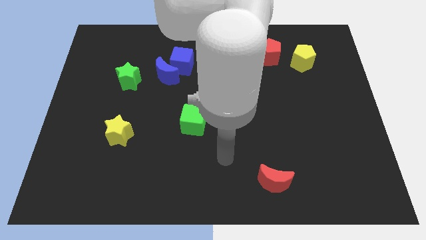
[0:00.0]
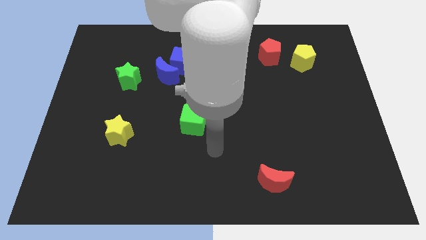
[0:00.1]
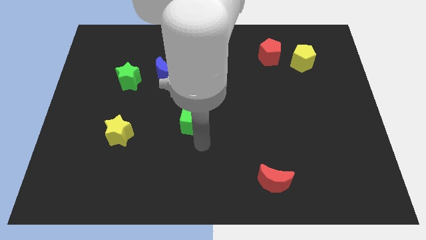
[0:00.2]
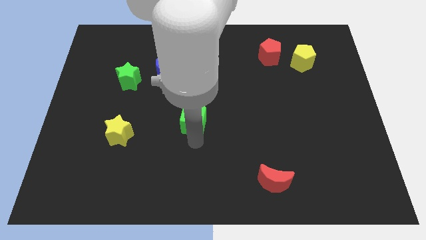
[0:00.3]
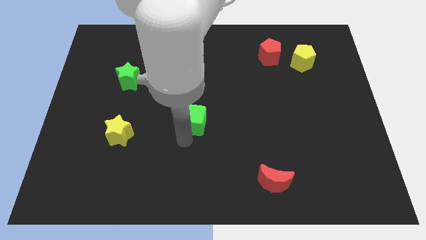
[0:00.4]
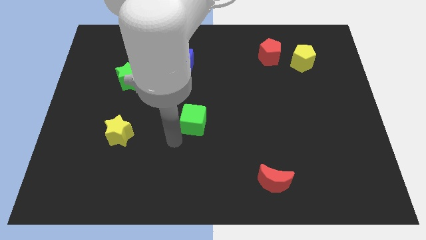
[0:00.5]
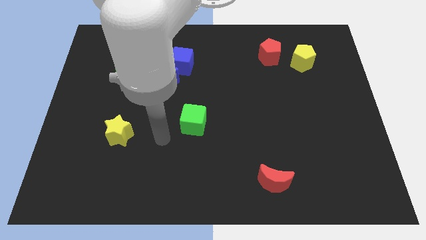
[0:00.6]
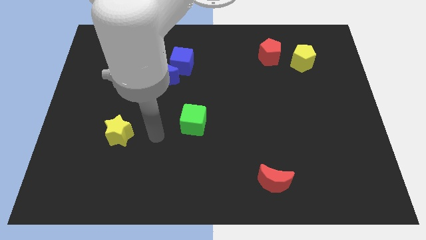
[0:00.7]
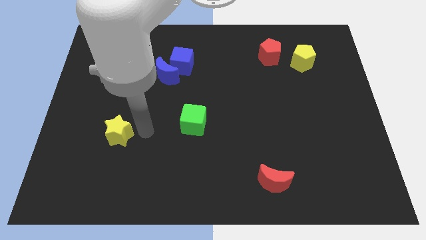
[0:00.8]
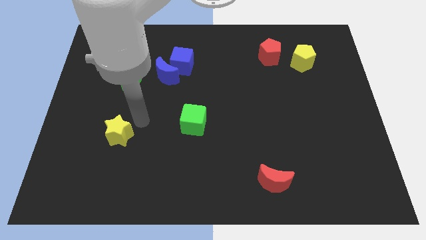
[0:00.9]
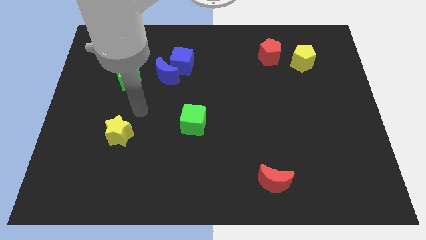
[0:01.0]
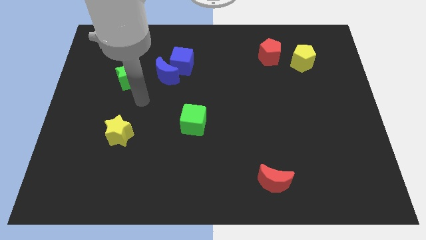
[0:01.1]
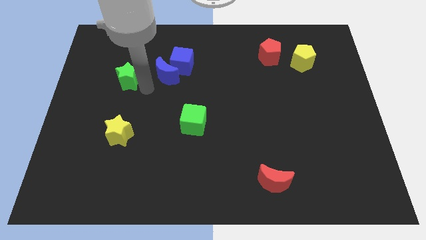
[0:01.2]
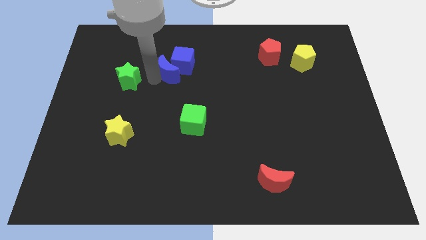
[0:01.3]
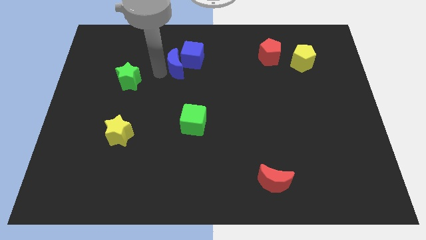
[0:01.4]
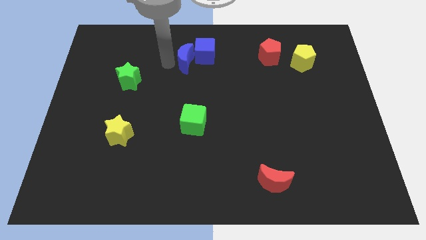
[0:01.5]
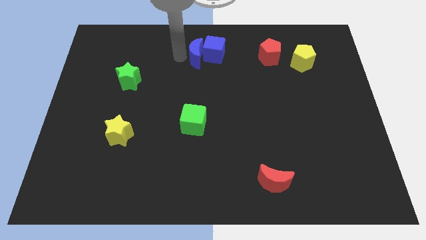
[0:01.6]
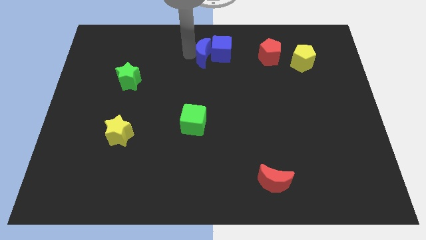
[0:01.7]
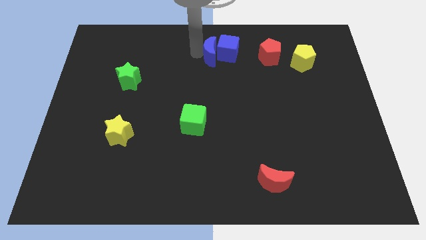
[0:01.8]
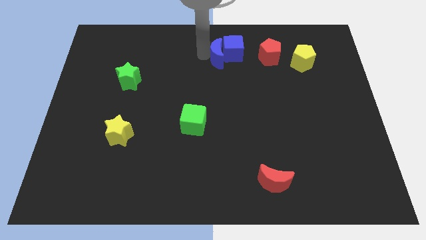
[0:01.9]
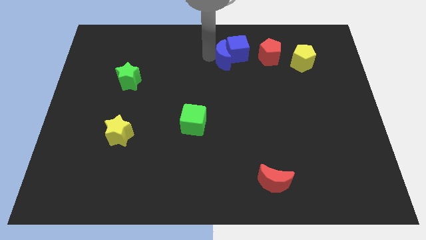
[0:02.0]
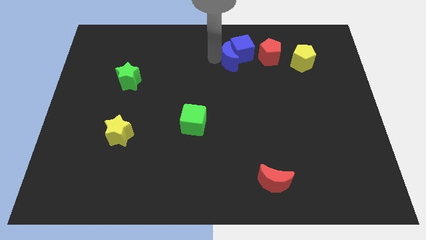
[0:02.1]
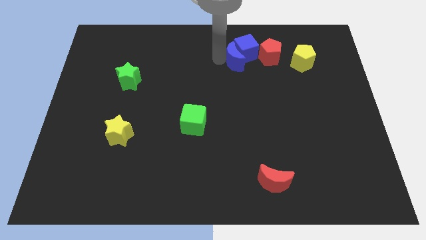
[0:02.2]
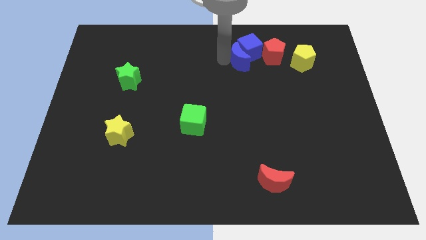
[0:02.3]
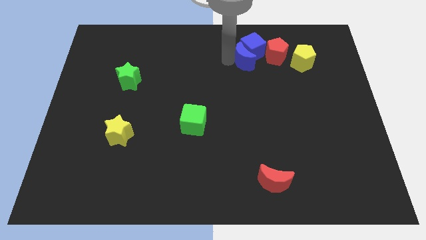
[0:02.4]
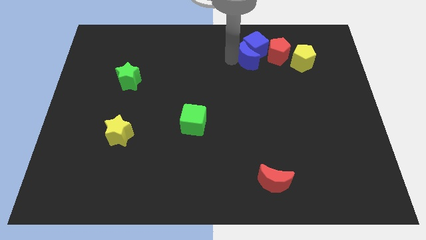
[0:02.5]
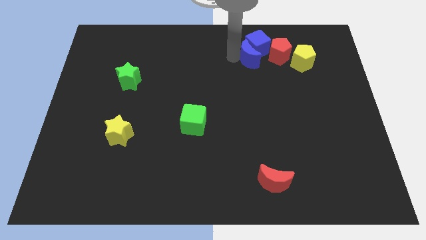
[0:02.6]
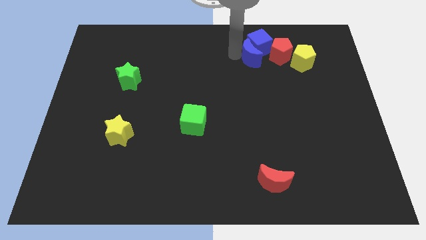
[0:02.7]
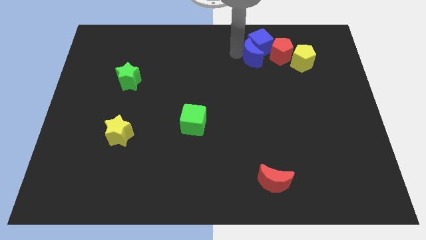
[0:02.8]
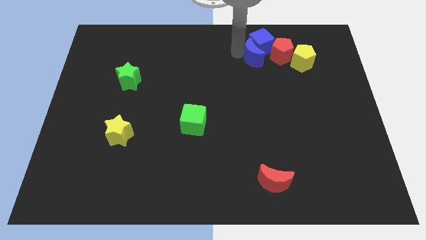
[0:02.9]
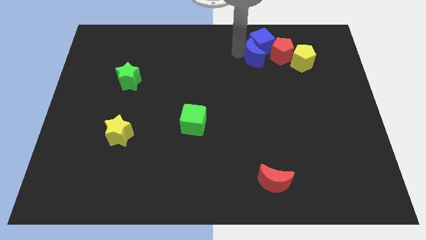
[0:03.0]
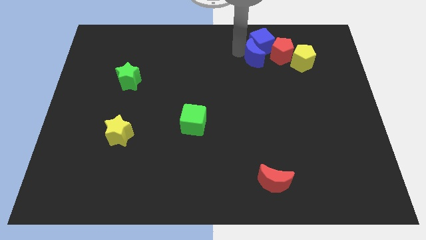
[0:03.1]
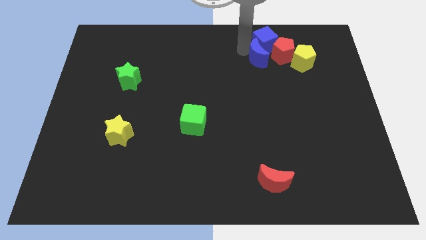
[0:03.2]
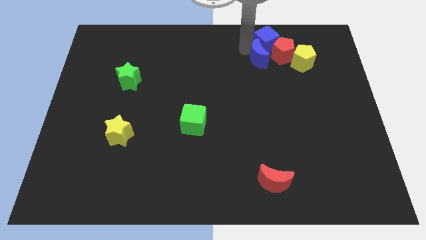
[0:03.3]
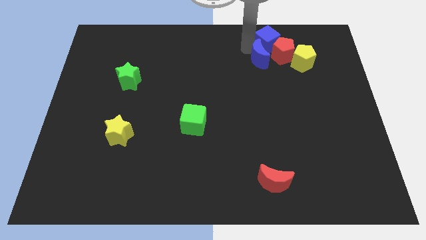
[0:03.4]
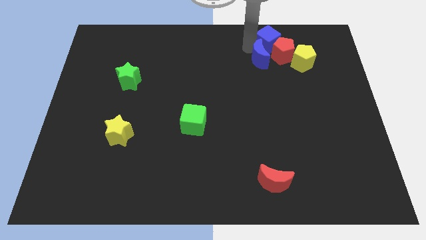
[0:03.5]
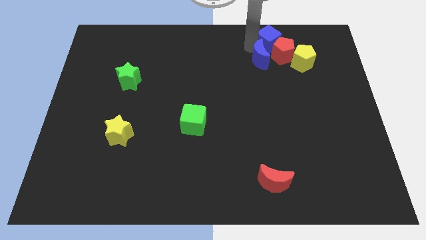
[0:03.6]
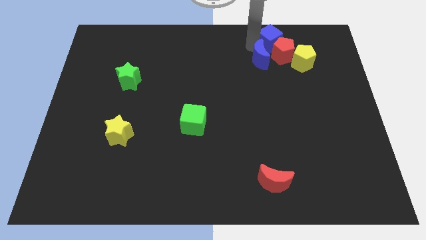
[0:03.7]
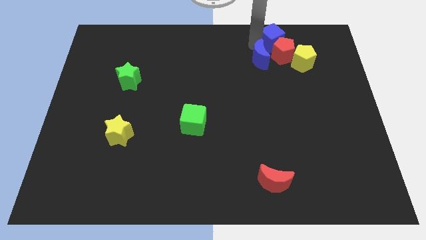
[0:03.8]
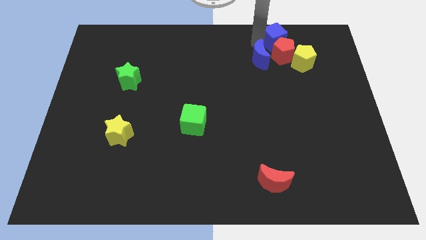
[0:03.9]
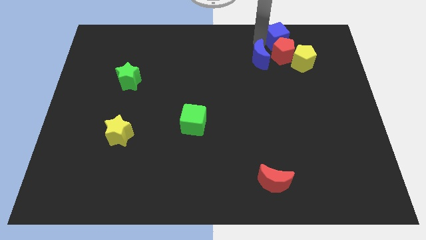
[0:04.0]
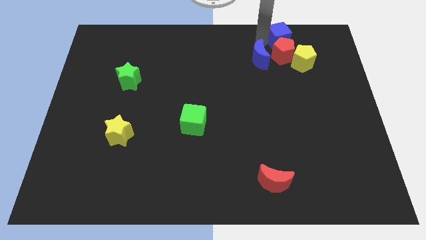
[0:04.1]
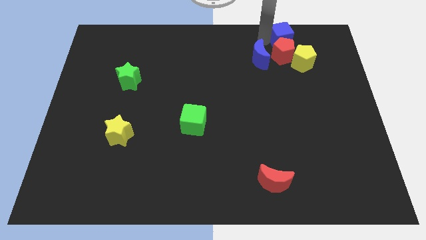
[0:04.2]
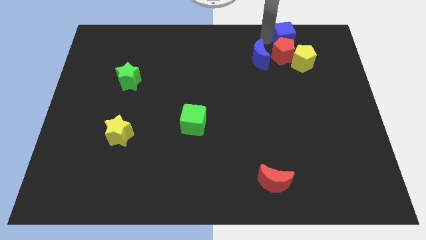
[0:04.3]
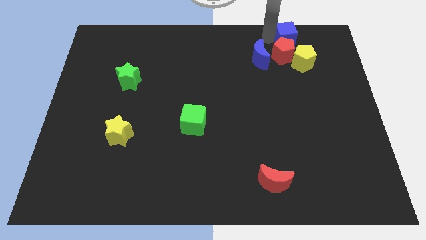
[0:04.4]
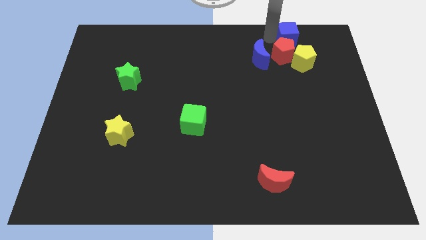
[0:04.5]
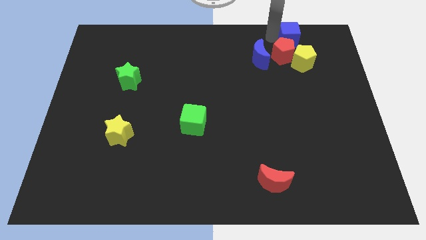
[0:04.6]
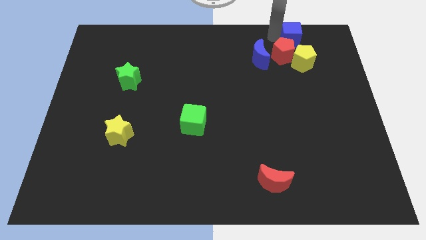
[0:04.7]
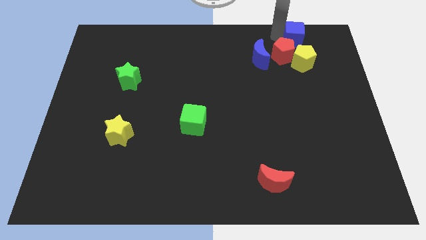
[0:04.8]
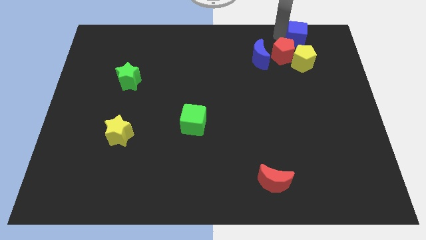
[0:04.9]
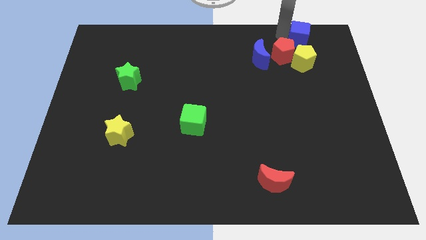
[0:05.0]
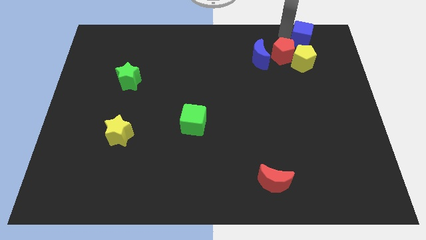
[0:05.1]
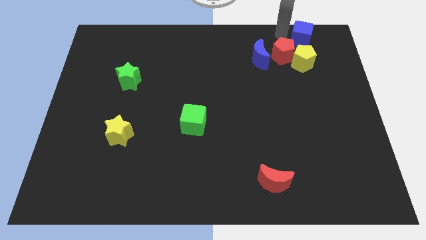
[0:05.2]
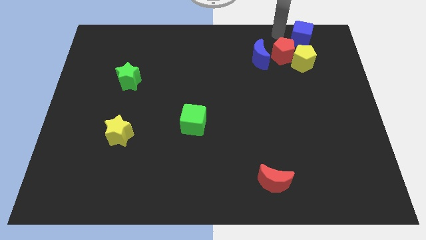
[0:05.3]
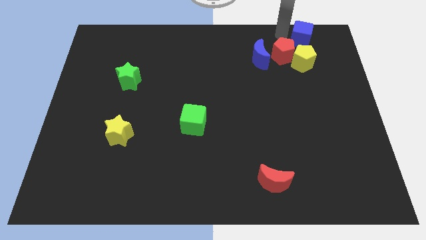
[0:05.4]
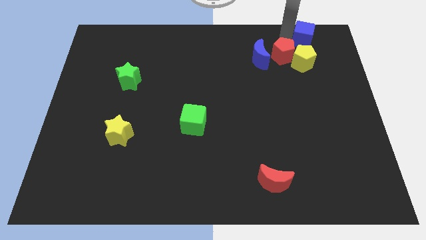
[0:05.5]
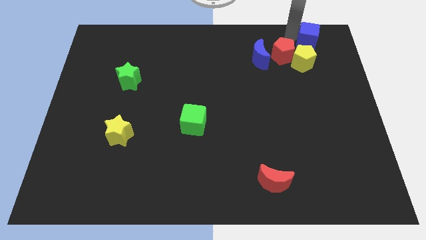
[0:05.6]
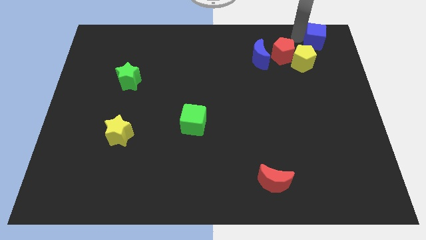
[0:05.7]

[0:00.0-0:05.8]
push the blue cube to the top right of the board

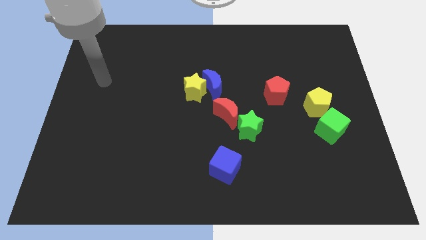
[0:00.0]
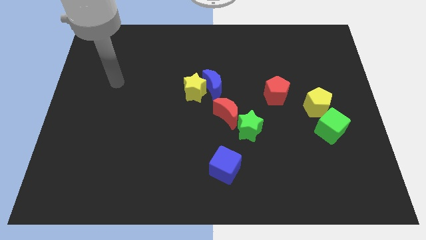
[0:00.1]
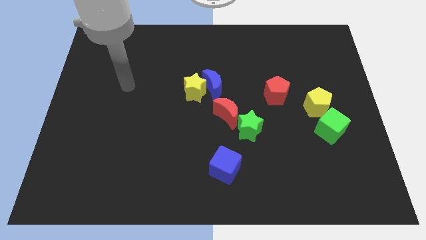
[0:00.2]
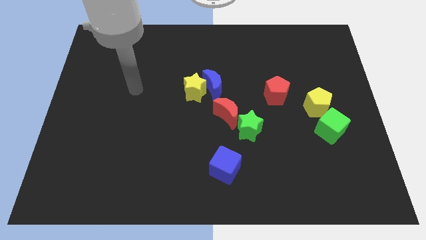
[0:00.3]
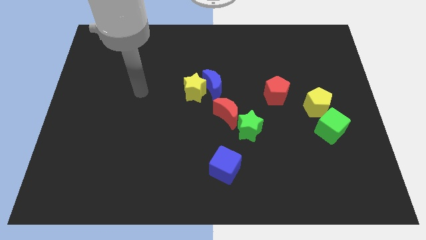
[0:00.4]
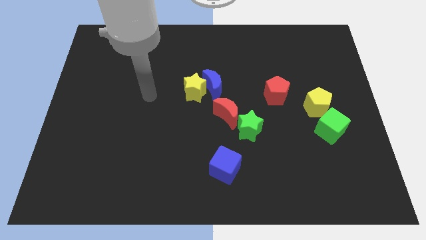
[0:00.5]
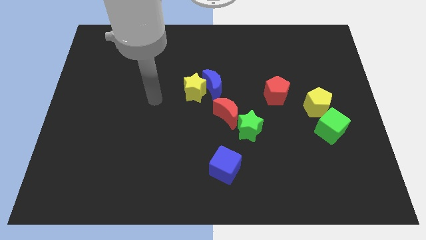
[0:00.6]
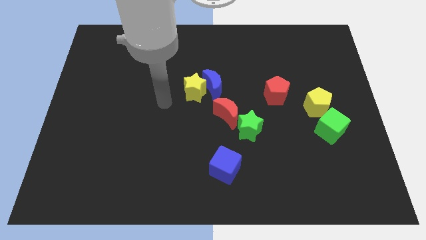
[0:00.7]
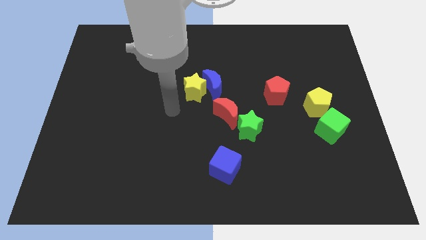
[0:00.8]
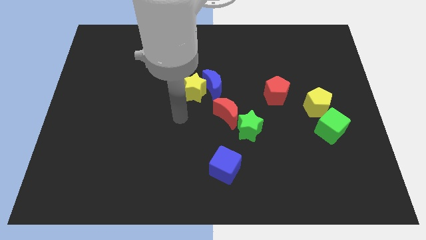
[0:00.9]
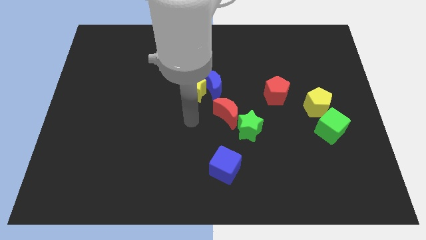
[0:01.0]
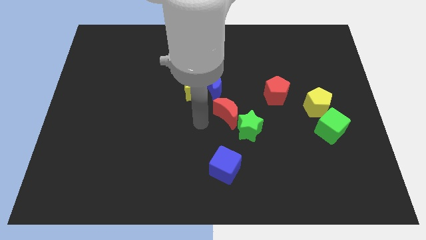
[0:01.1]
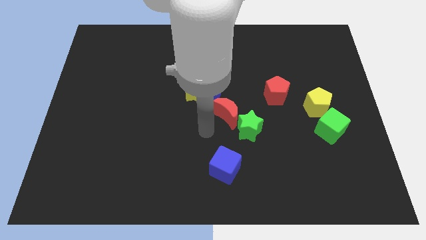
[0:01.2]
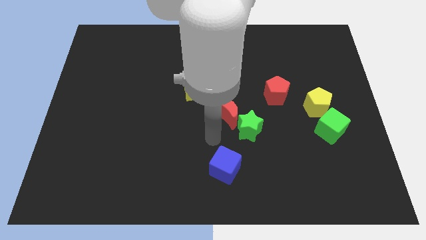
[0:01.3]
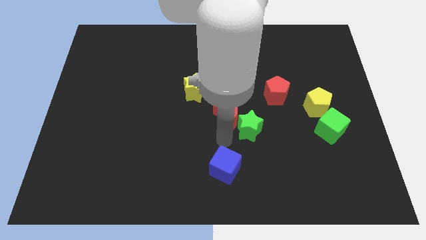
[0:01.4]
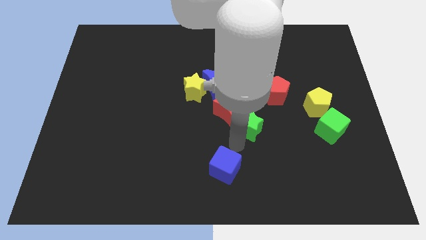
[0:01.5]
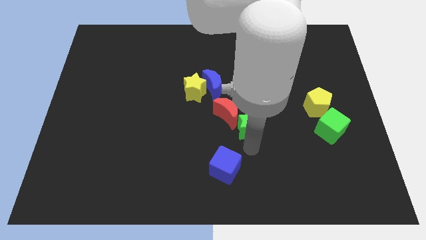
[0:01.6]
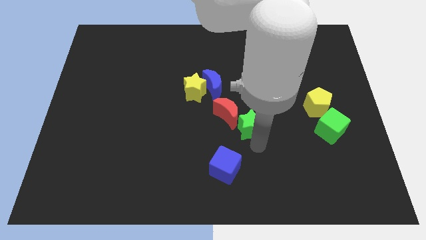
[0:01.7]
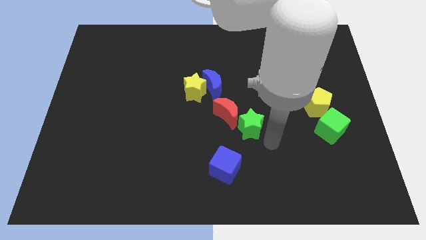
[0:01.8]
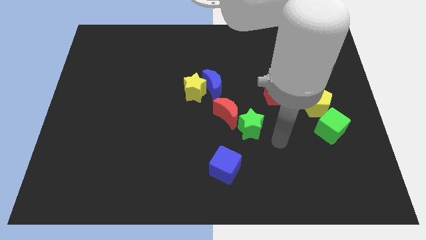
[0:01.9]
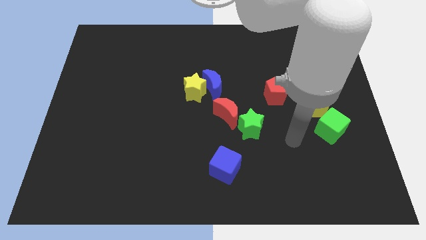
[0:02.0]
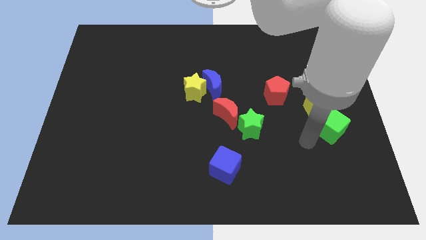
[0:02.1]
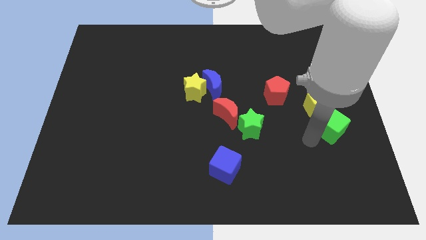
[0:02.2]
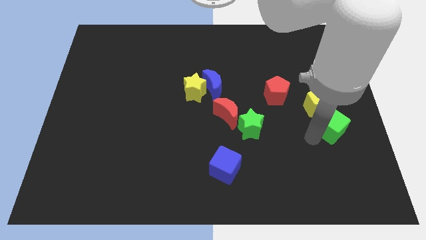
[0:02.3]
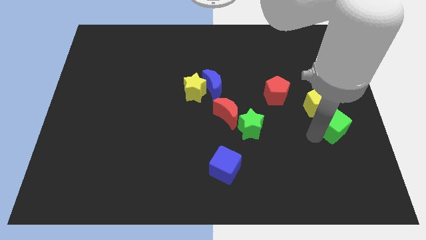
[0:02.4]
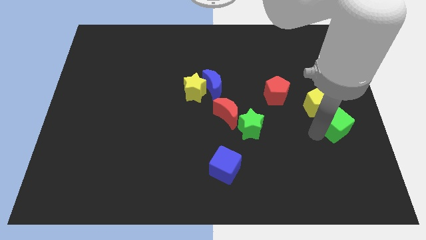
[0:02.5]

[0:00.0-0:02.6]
move the green cube to the center right
